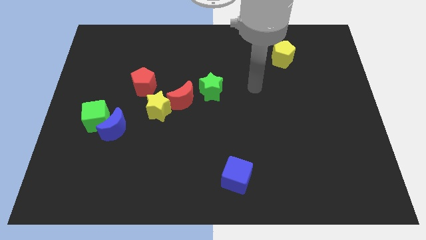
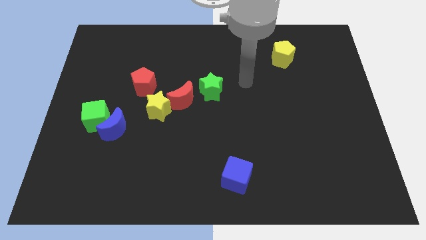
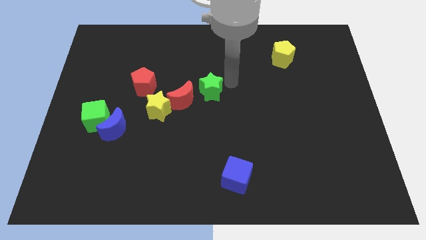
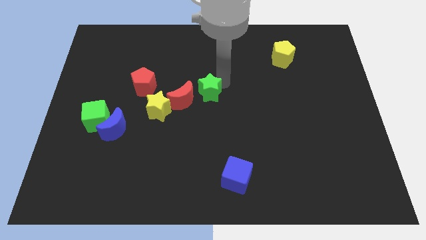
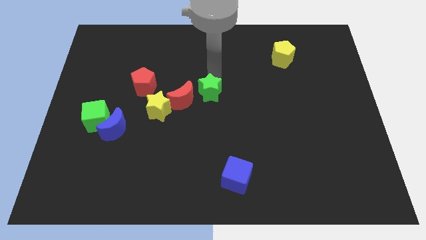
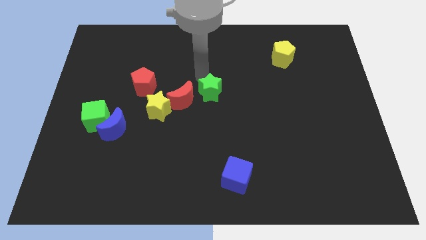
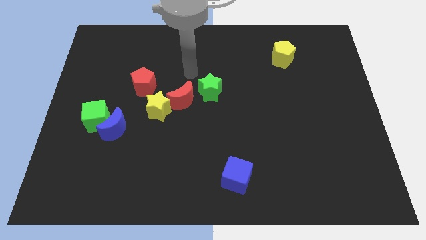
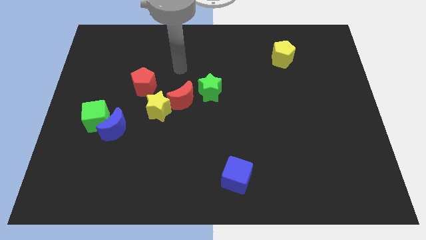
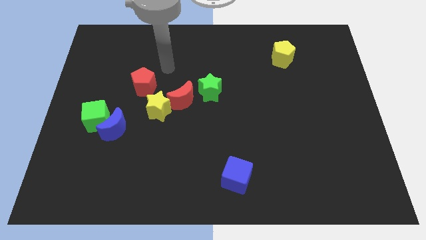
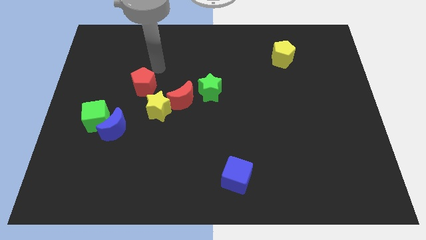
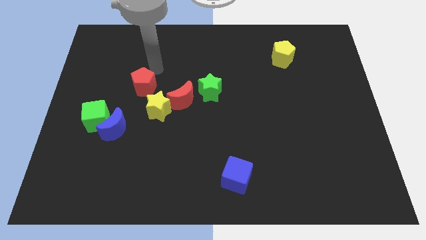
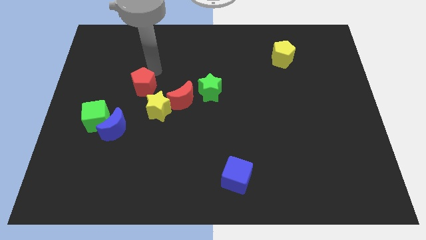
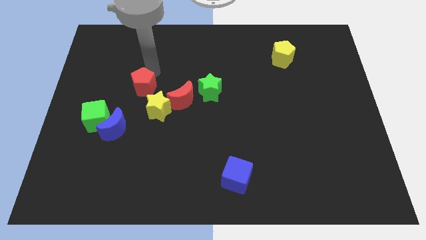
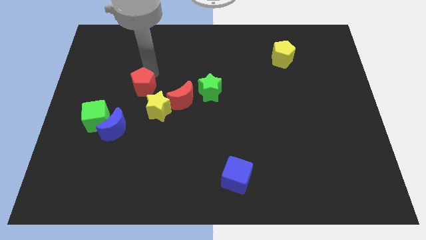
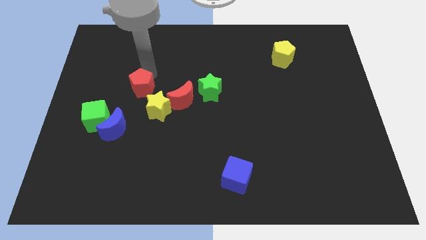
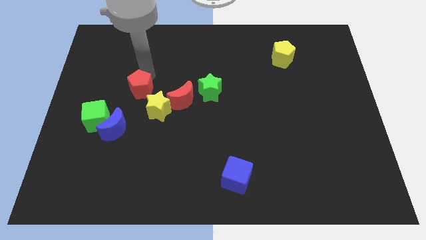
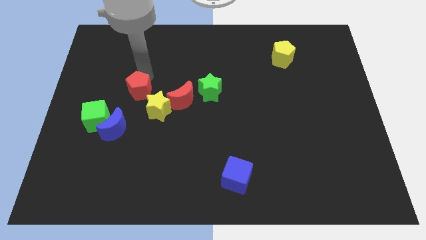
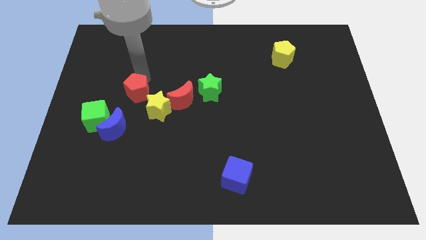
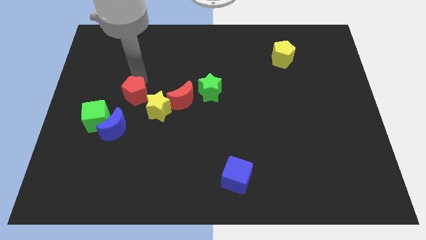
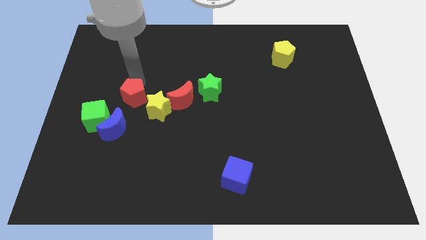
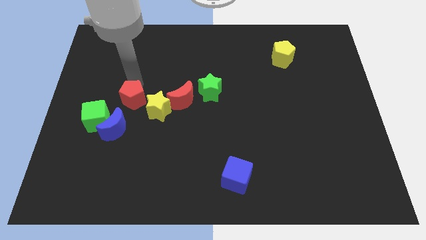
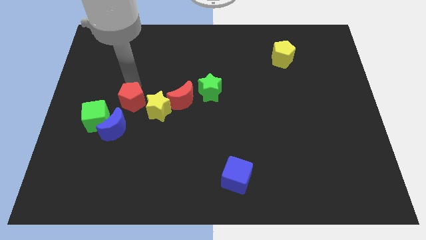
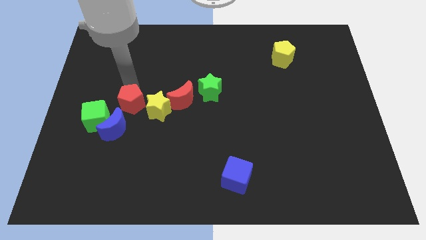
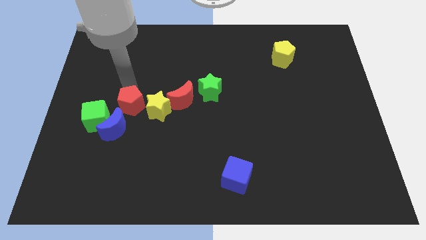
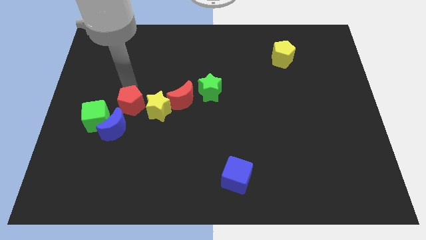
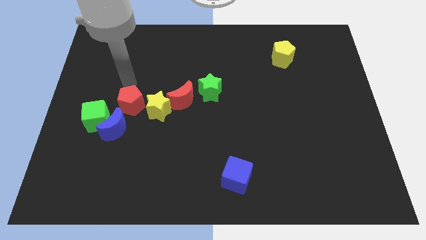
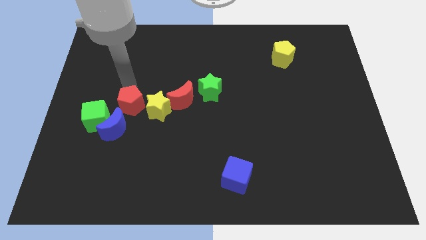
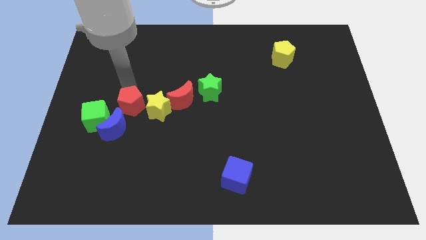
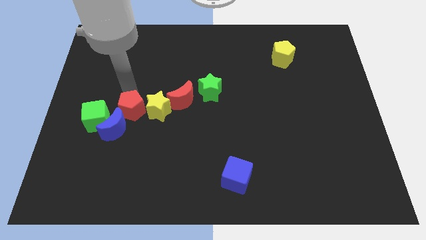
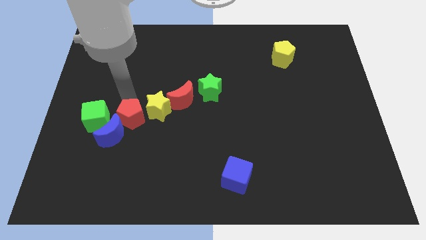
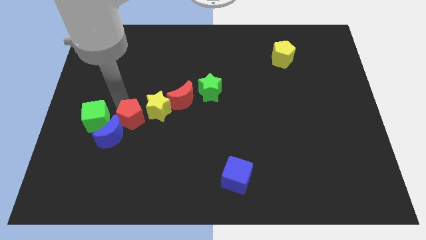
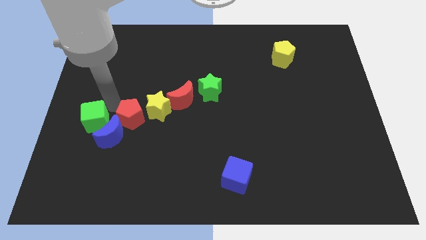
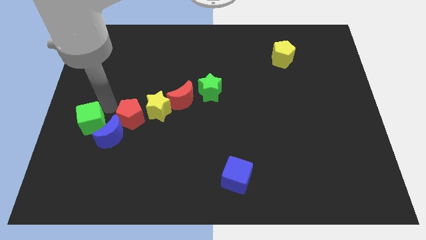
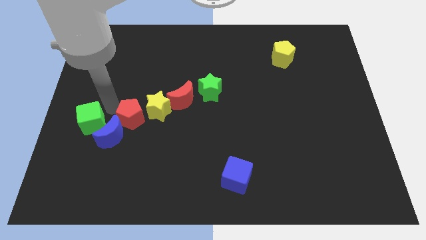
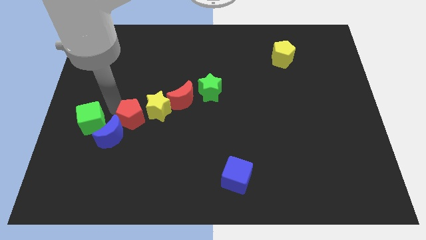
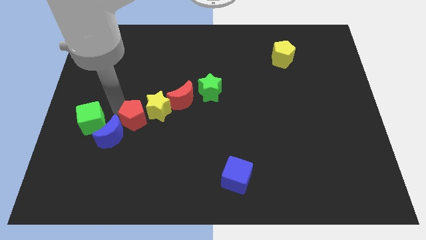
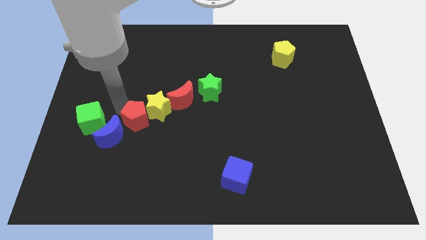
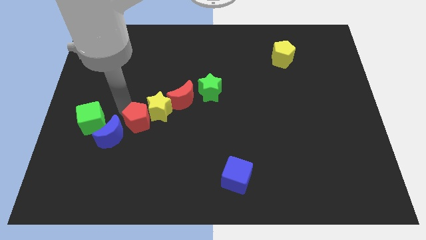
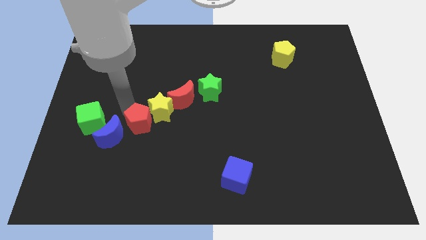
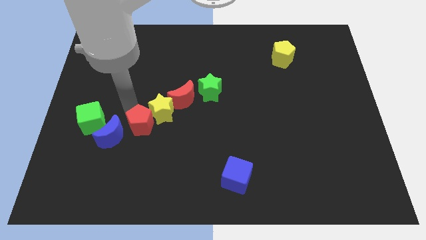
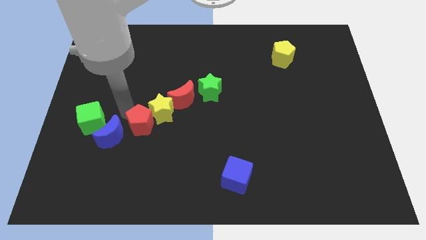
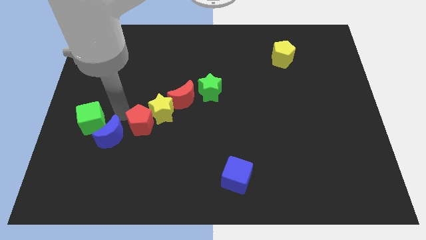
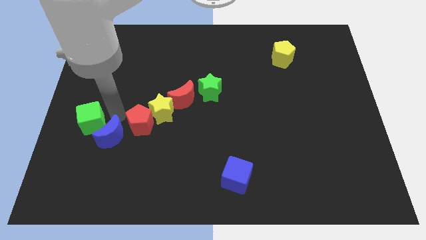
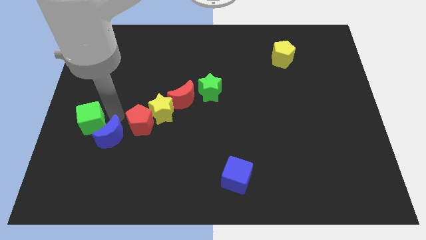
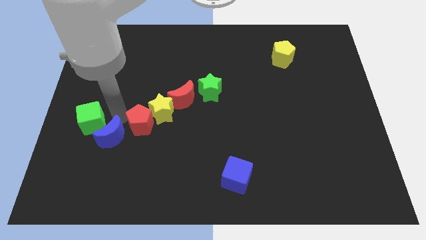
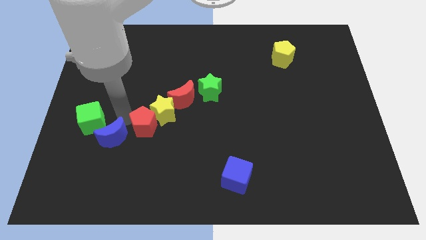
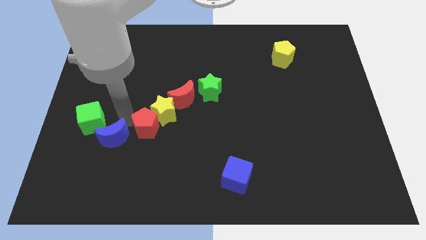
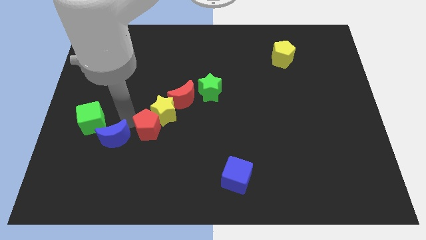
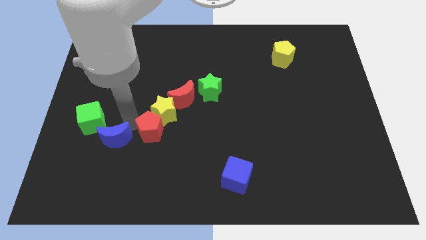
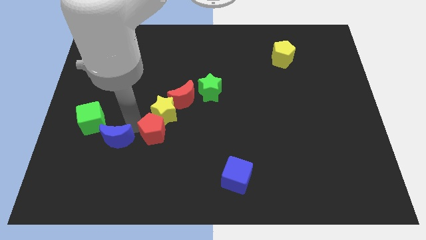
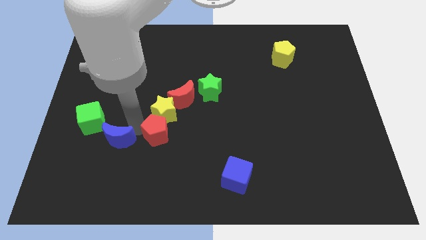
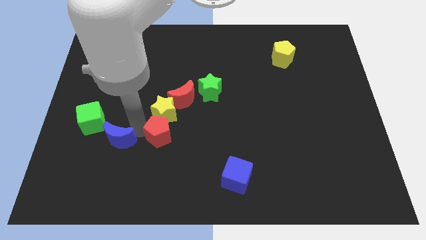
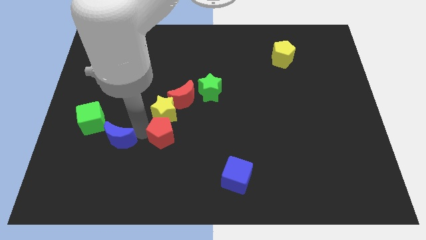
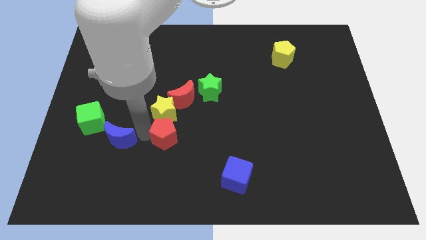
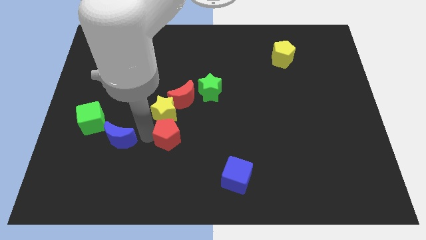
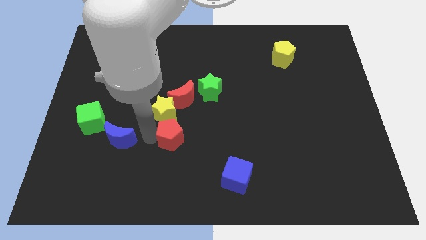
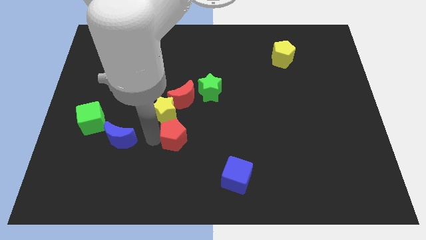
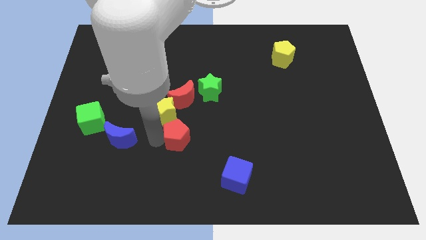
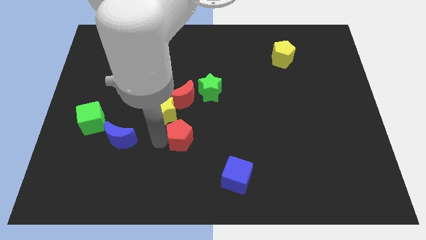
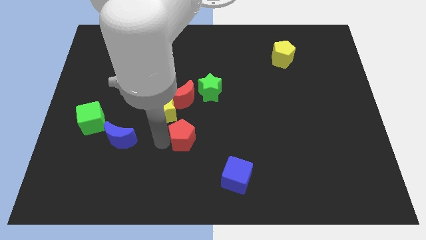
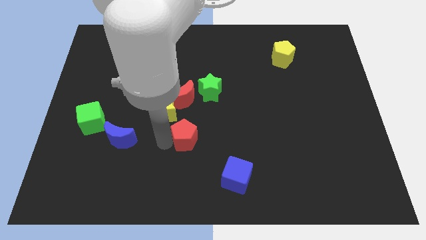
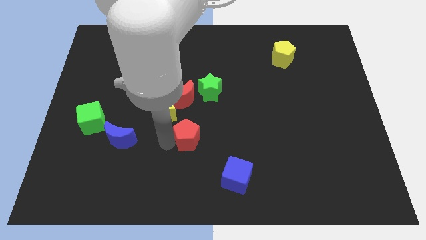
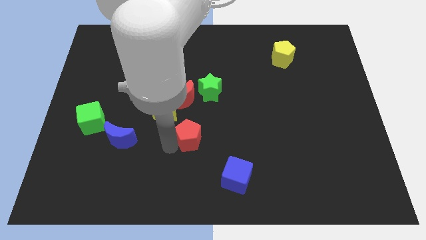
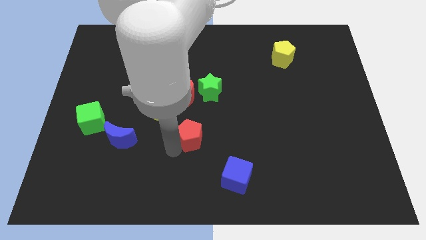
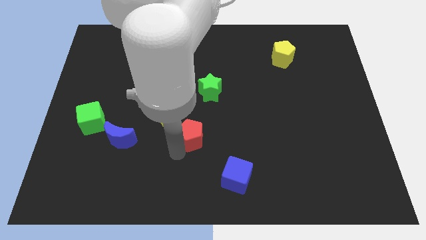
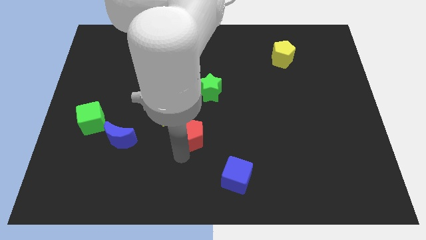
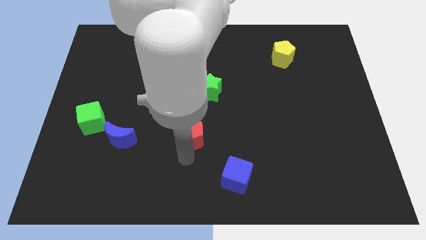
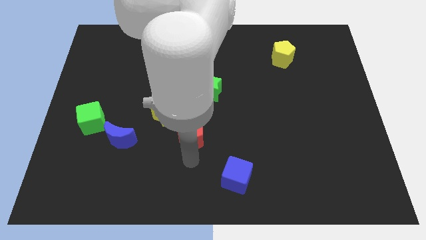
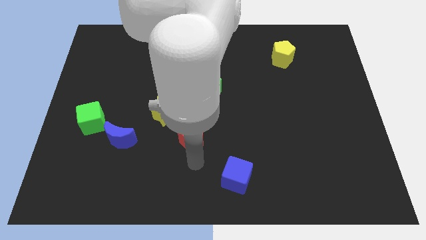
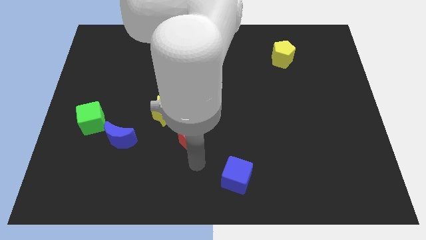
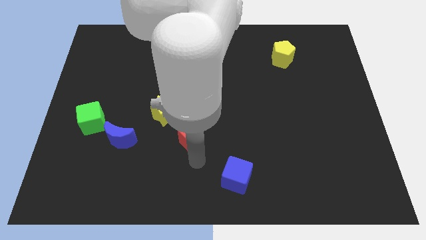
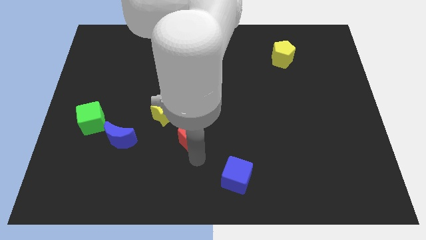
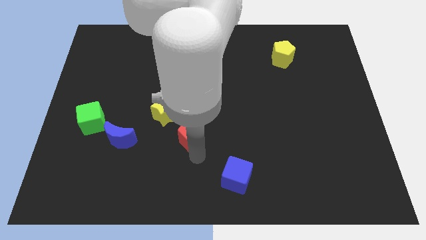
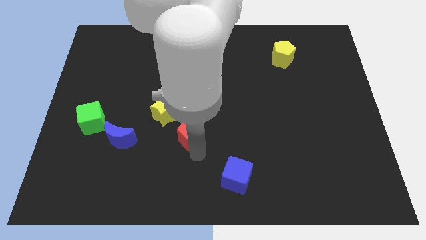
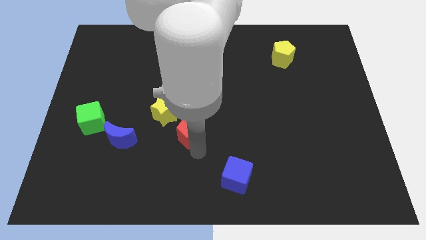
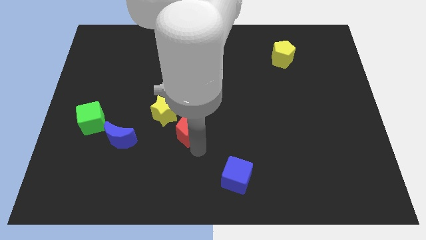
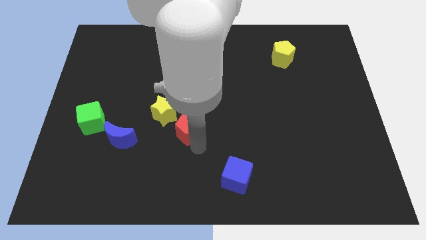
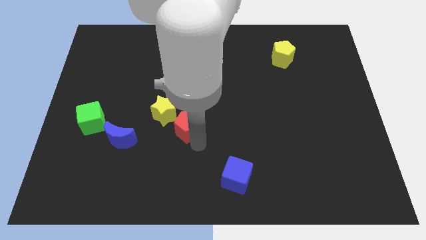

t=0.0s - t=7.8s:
put the red pentagon to the right side of the yellow star

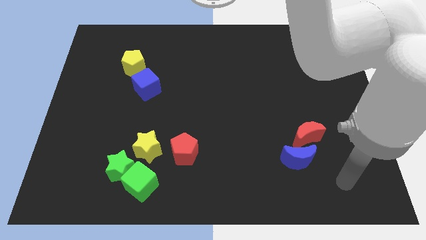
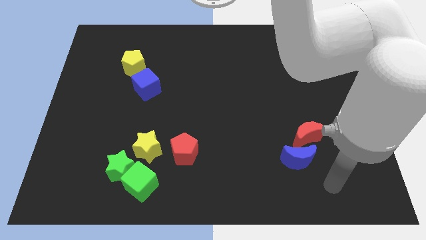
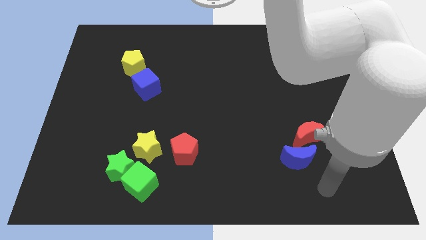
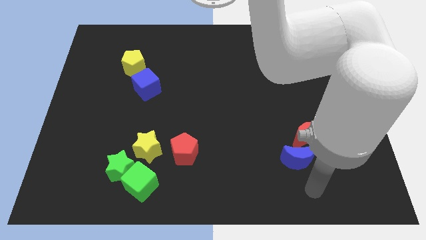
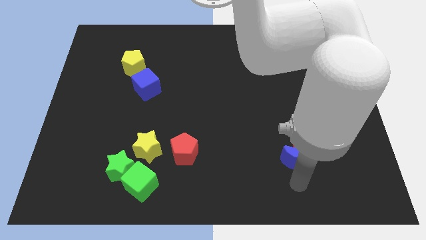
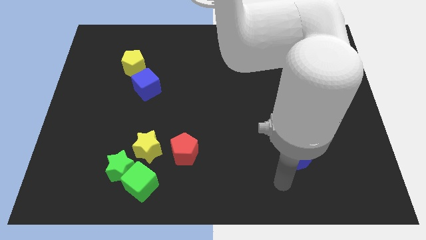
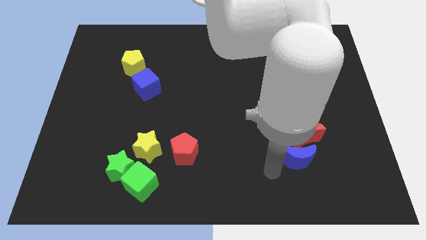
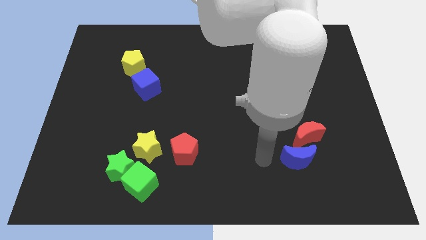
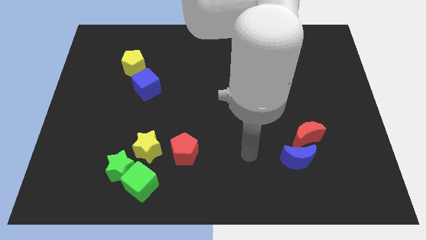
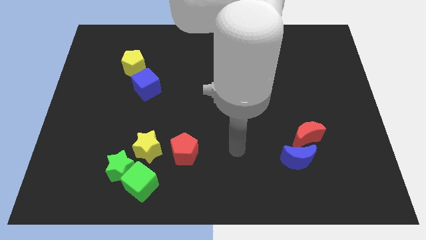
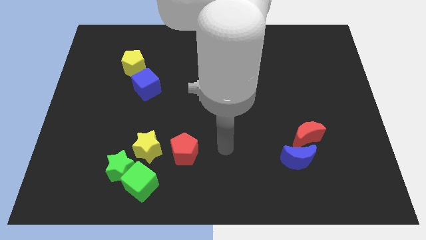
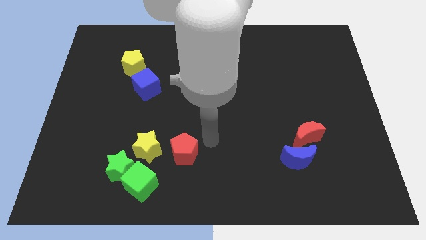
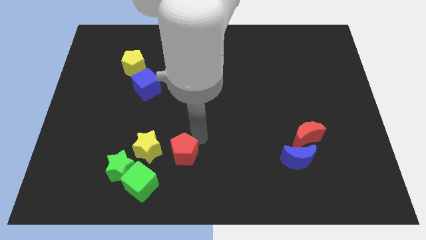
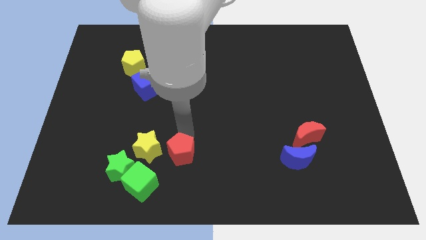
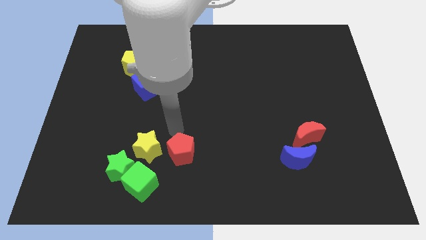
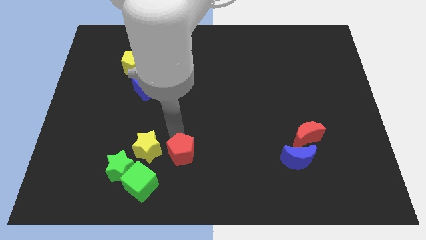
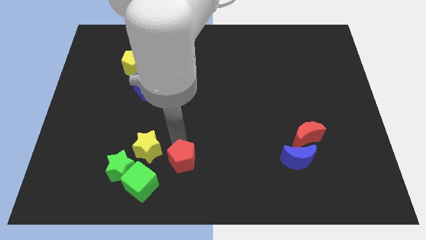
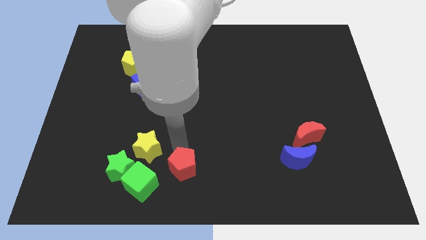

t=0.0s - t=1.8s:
slide the red pentagon right of the green cube
